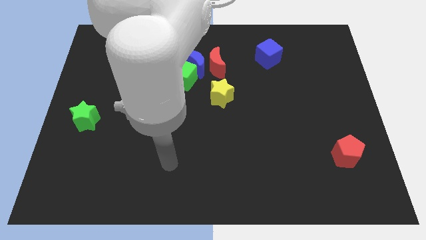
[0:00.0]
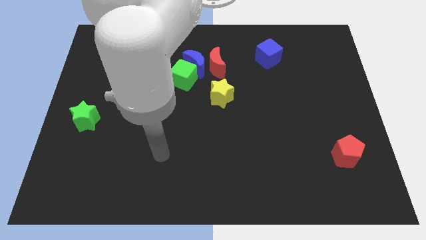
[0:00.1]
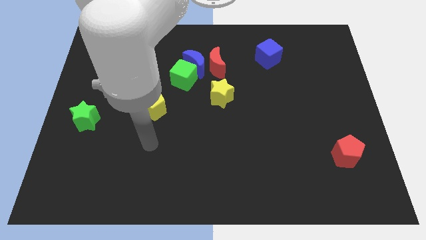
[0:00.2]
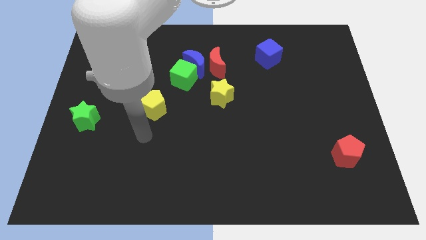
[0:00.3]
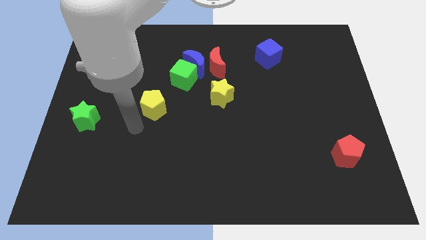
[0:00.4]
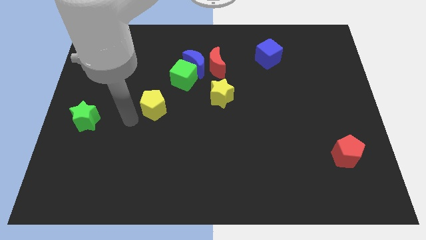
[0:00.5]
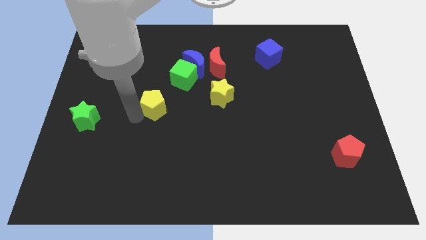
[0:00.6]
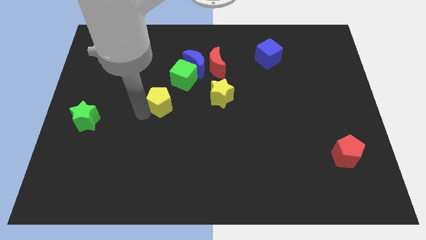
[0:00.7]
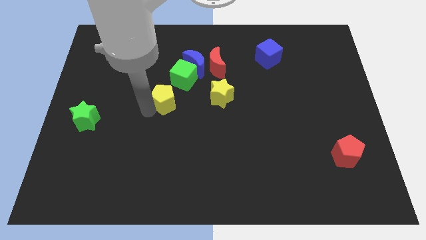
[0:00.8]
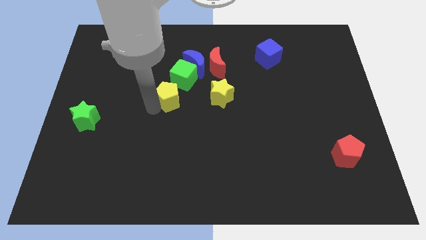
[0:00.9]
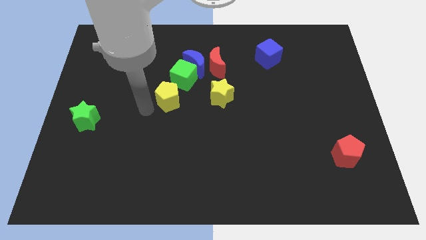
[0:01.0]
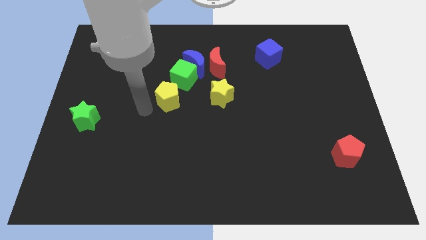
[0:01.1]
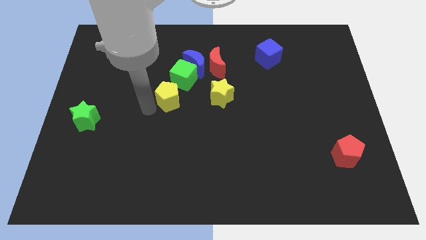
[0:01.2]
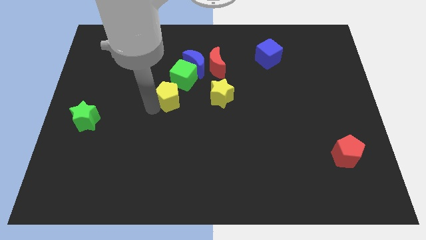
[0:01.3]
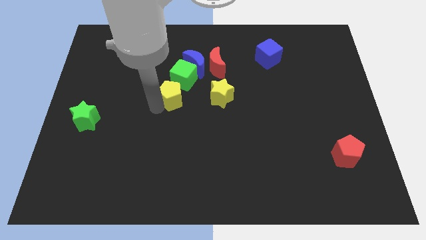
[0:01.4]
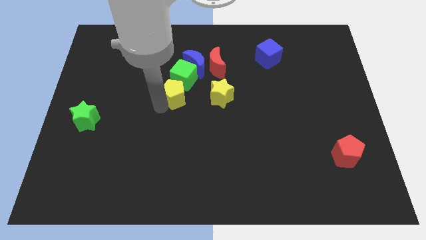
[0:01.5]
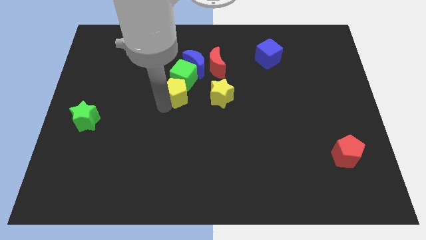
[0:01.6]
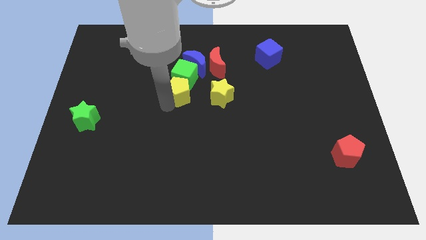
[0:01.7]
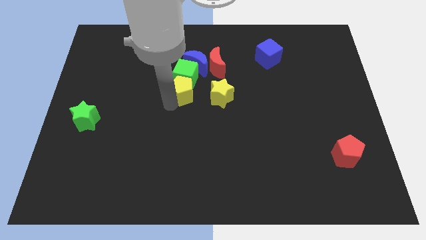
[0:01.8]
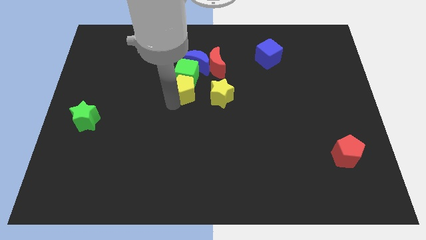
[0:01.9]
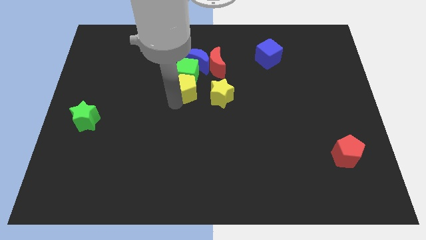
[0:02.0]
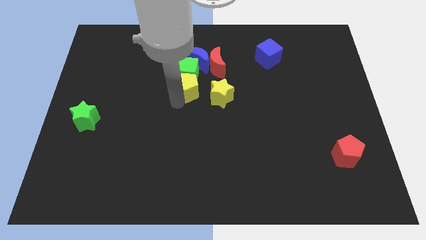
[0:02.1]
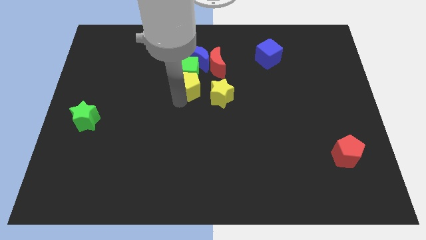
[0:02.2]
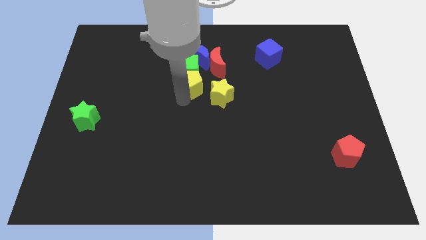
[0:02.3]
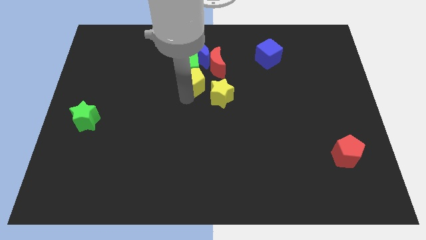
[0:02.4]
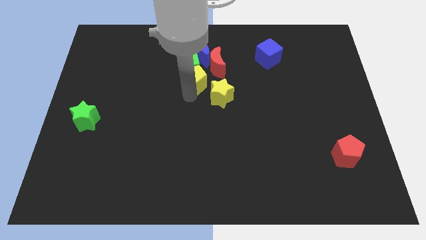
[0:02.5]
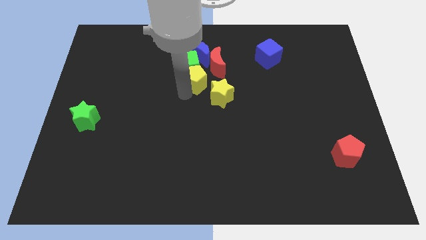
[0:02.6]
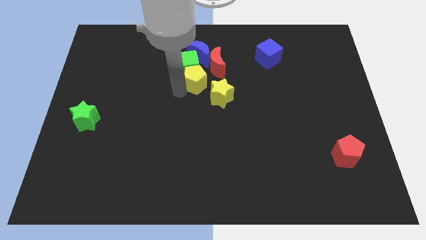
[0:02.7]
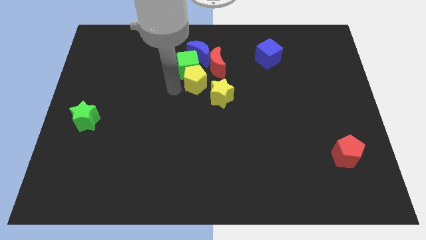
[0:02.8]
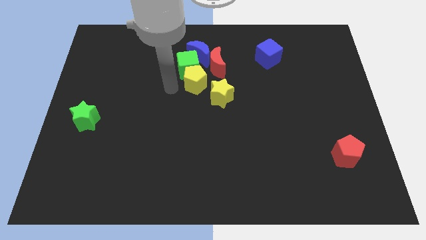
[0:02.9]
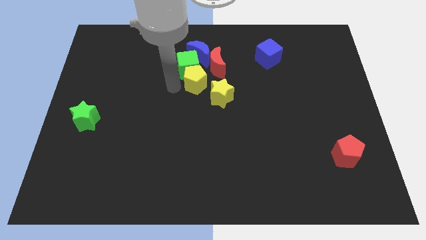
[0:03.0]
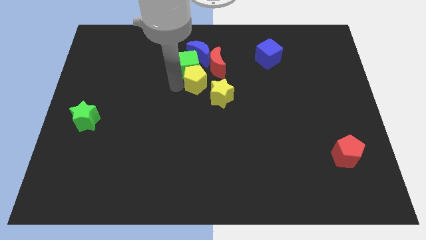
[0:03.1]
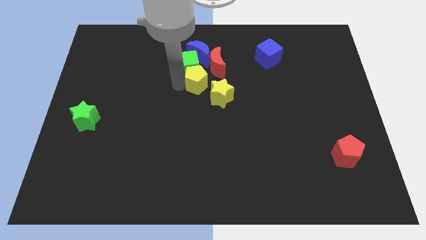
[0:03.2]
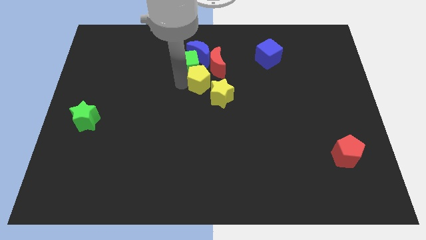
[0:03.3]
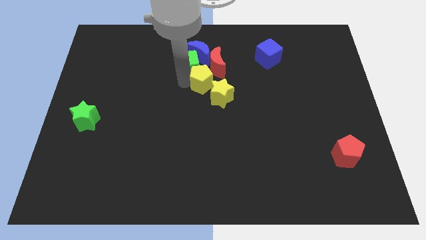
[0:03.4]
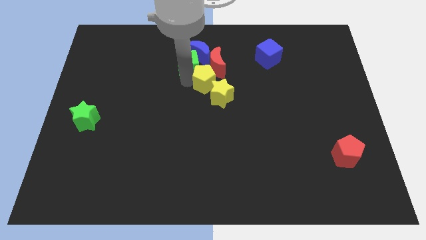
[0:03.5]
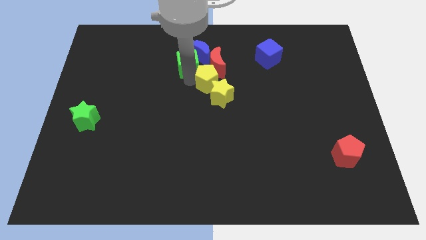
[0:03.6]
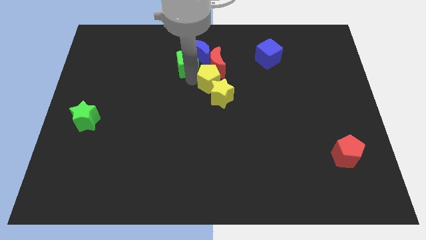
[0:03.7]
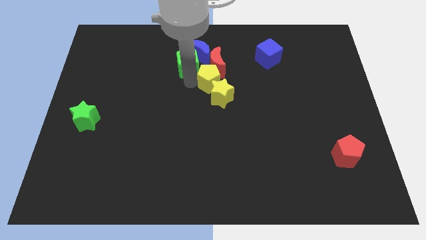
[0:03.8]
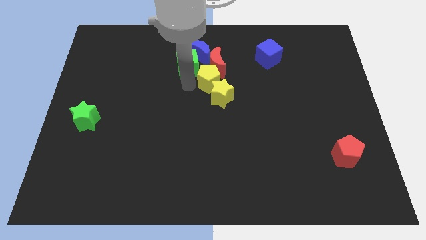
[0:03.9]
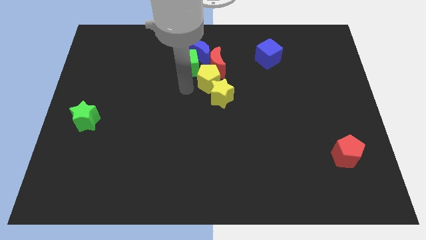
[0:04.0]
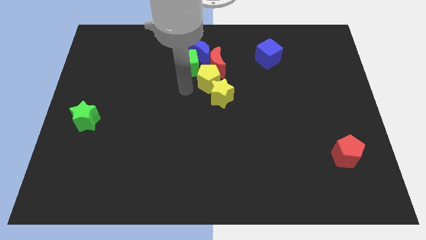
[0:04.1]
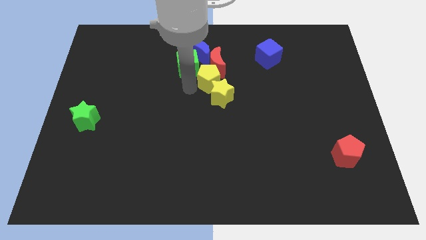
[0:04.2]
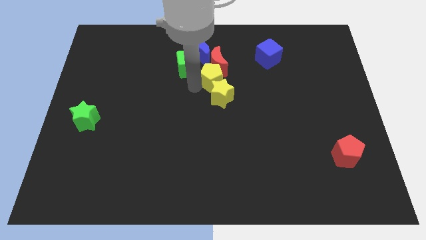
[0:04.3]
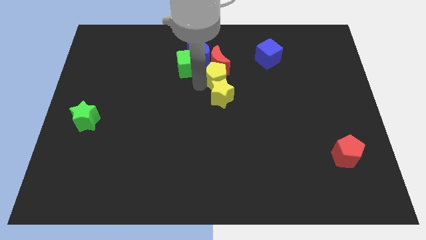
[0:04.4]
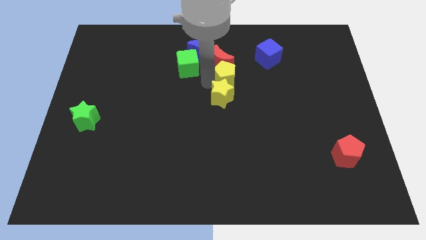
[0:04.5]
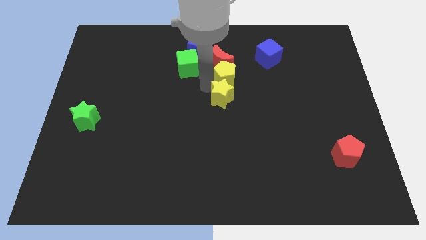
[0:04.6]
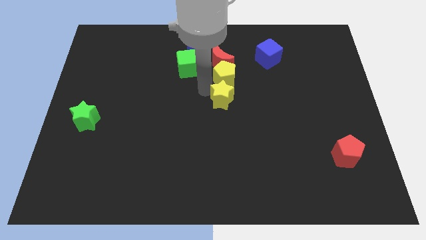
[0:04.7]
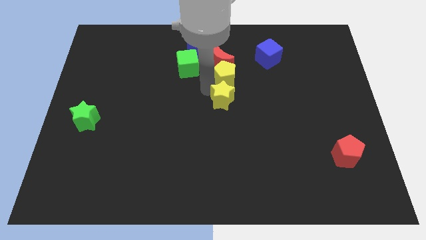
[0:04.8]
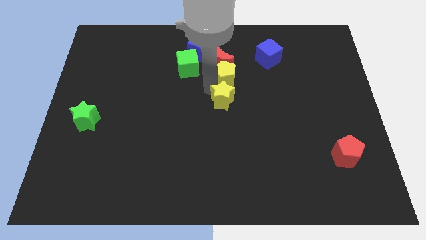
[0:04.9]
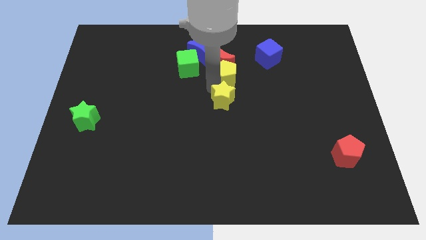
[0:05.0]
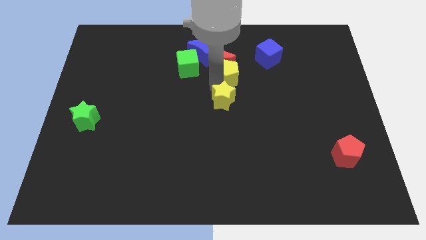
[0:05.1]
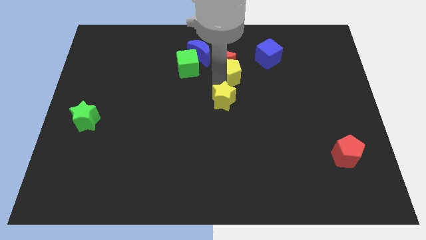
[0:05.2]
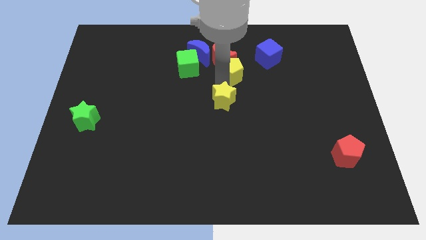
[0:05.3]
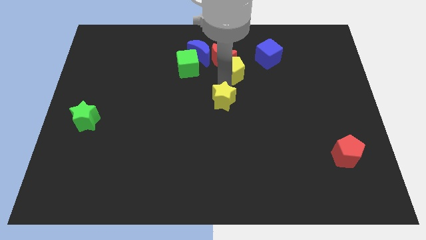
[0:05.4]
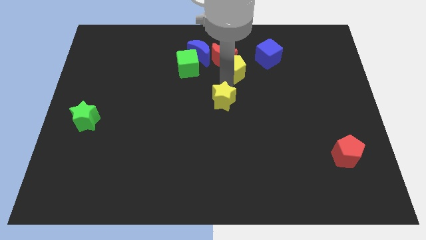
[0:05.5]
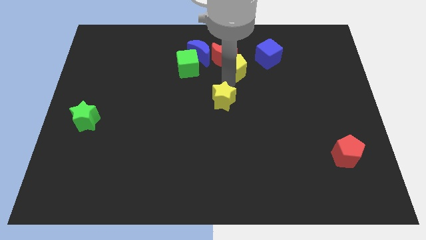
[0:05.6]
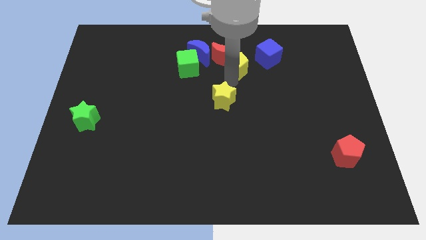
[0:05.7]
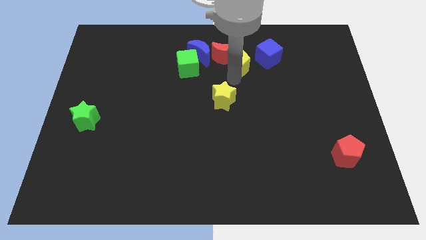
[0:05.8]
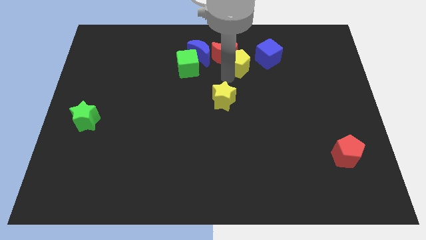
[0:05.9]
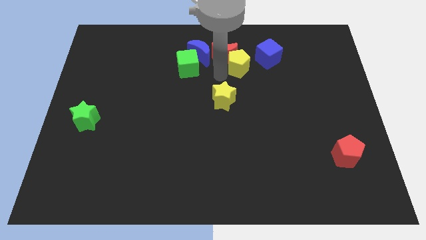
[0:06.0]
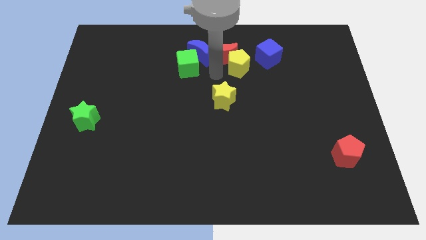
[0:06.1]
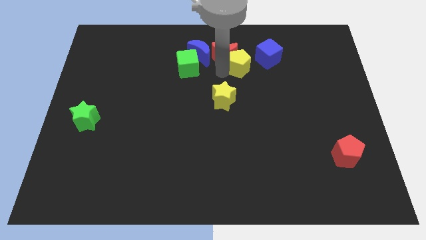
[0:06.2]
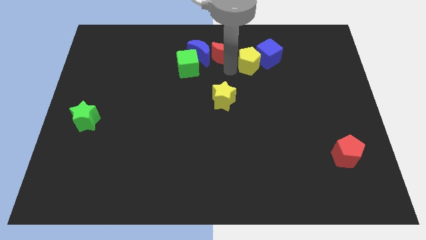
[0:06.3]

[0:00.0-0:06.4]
put the yellow pentagon towards the blue cube

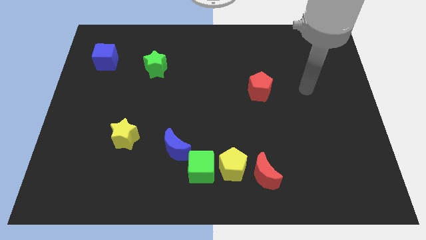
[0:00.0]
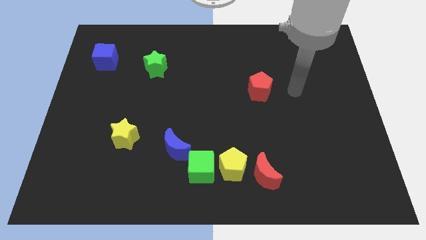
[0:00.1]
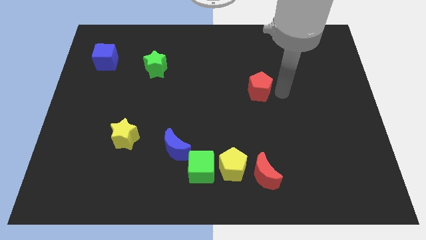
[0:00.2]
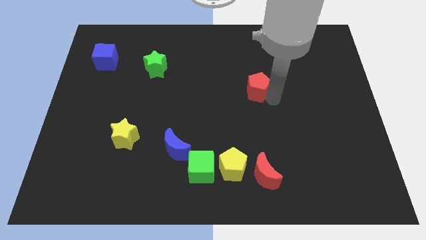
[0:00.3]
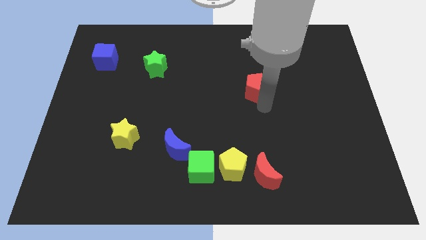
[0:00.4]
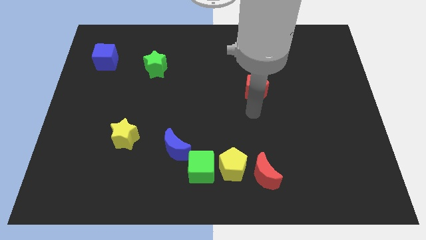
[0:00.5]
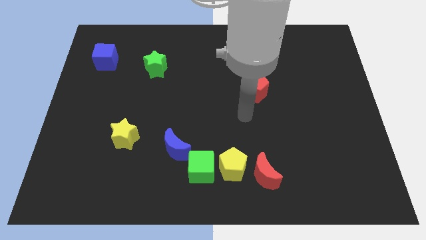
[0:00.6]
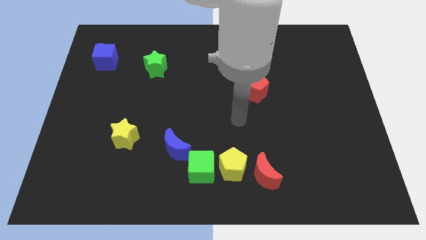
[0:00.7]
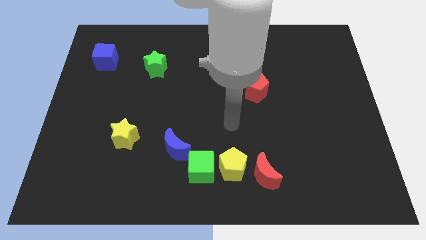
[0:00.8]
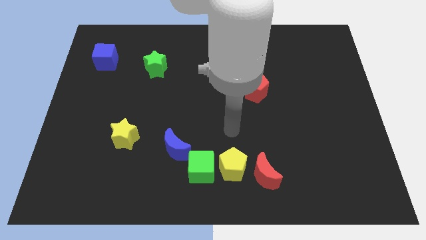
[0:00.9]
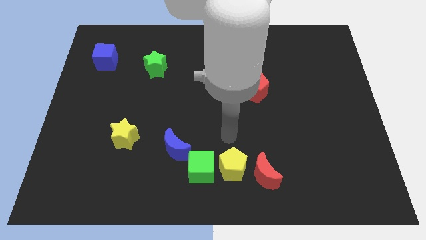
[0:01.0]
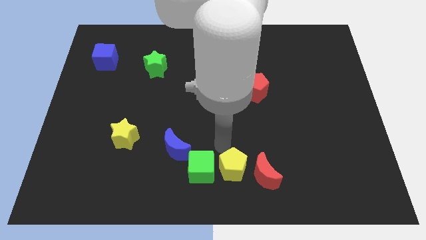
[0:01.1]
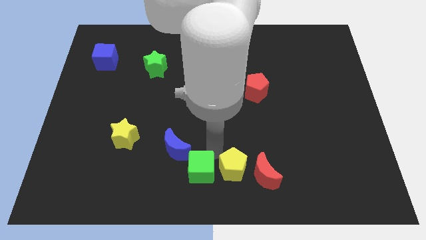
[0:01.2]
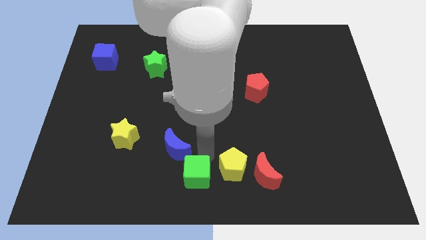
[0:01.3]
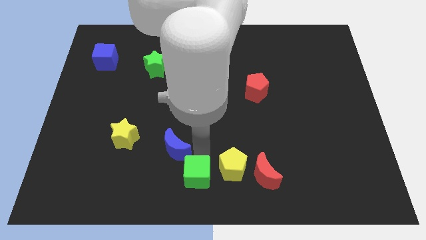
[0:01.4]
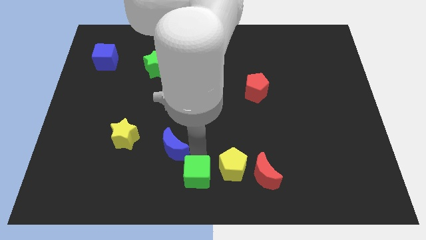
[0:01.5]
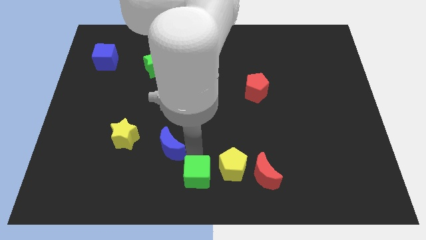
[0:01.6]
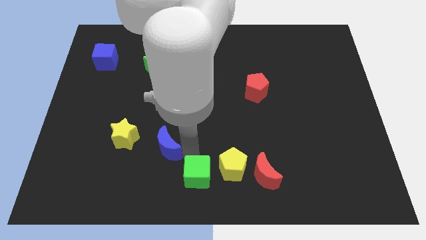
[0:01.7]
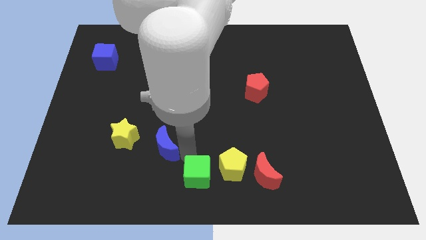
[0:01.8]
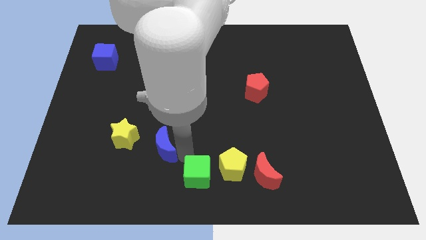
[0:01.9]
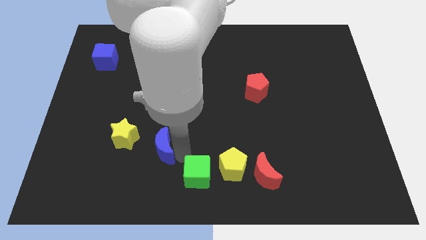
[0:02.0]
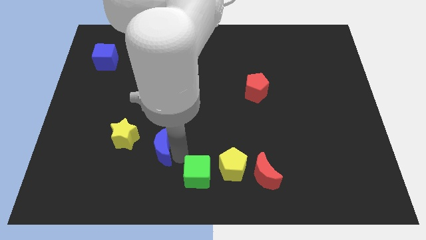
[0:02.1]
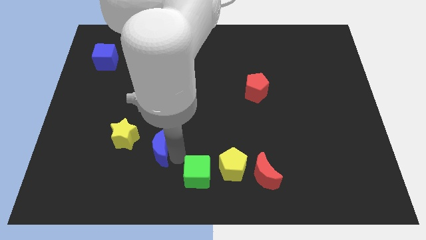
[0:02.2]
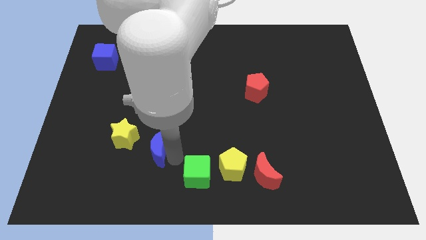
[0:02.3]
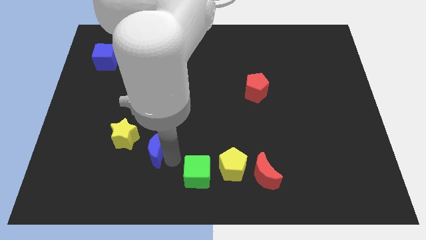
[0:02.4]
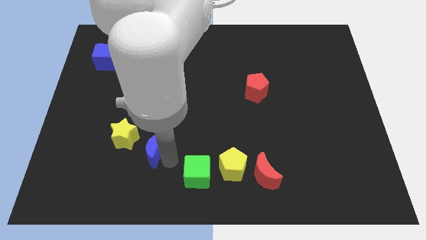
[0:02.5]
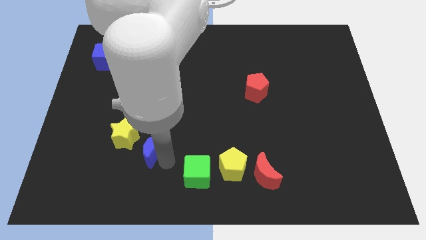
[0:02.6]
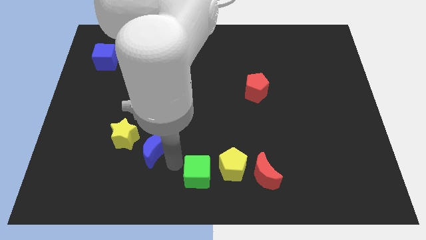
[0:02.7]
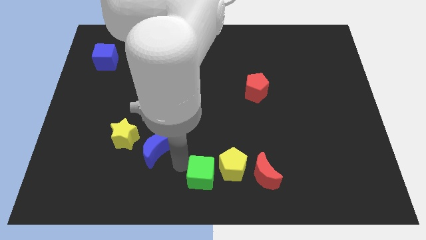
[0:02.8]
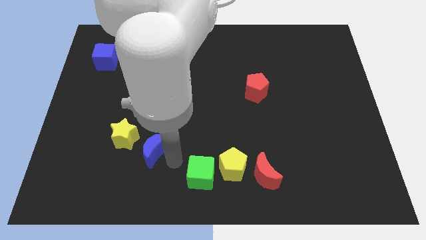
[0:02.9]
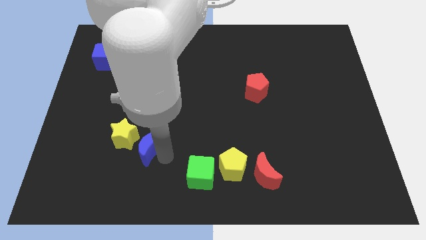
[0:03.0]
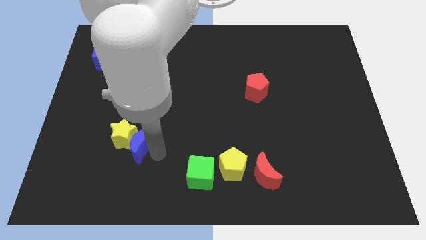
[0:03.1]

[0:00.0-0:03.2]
push the blue moon close to the yellow star
